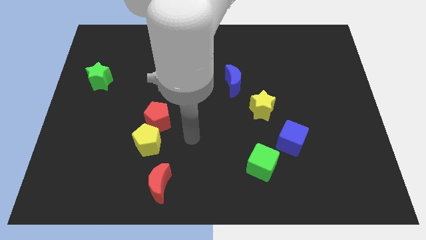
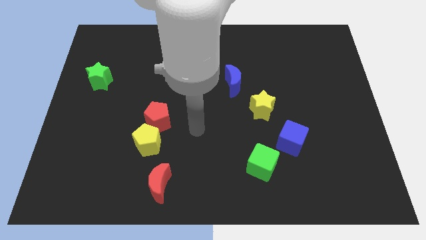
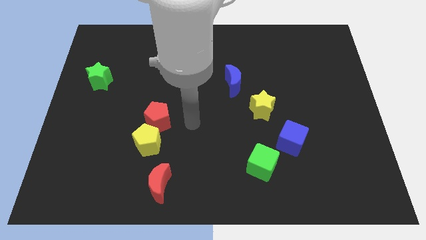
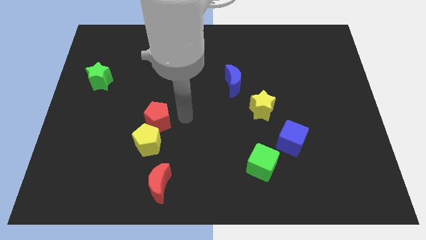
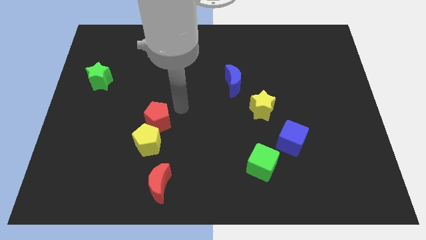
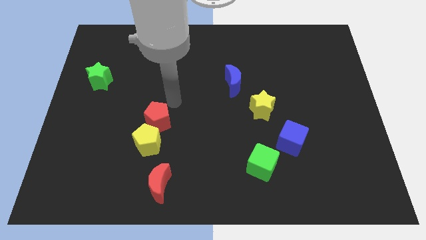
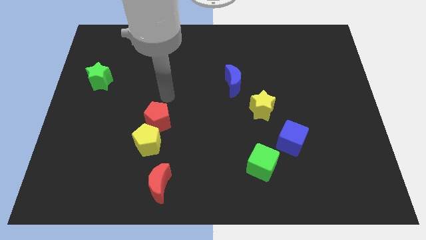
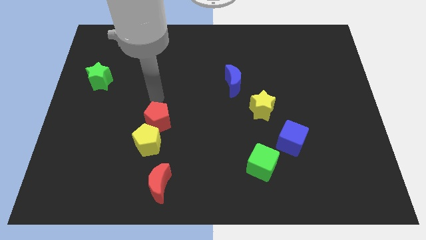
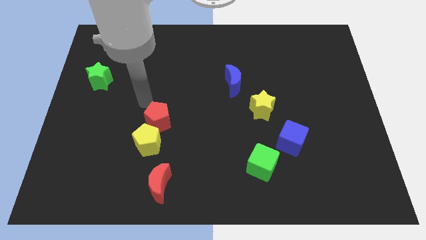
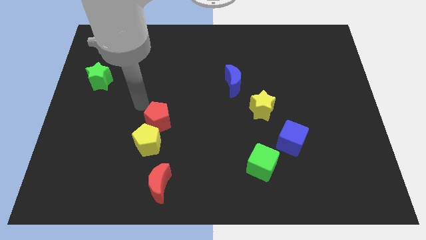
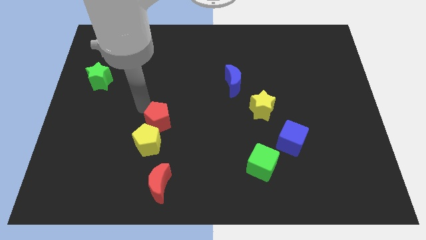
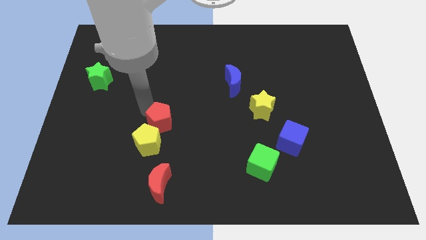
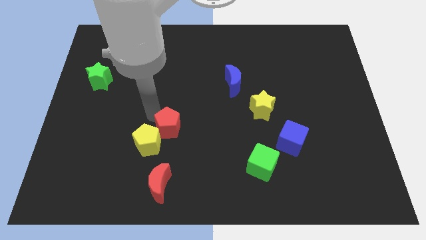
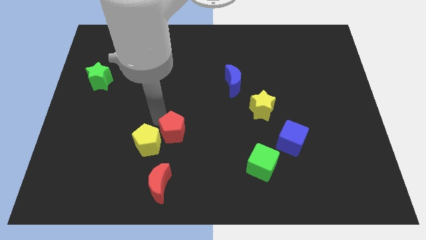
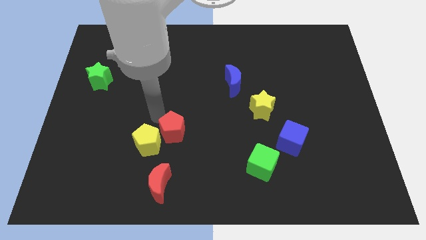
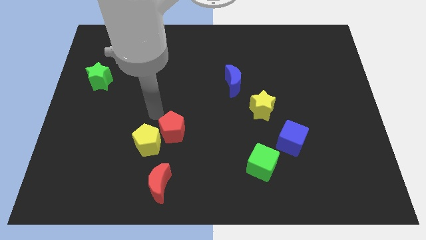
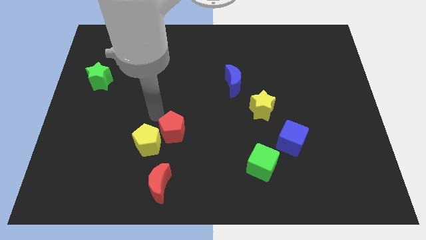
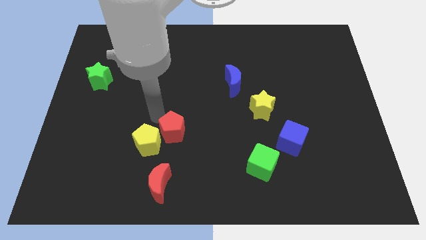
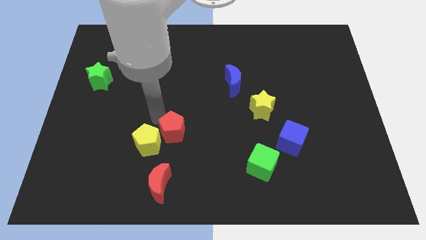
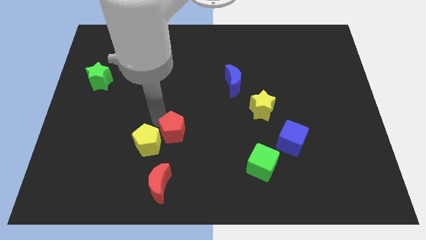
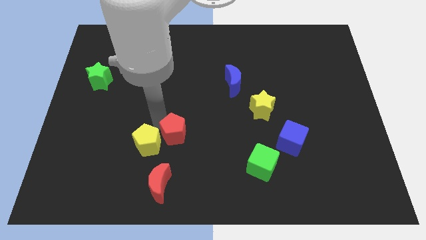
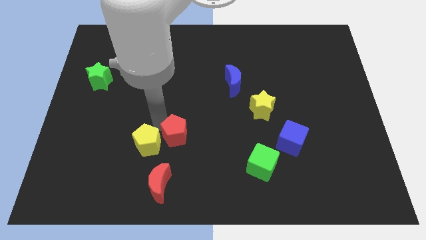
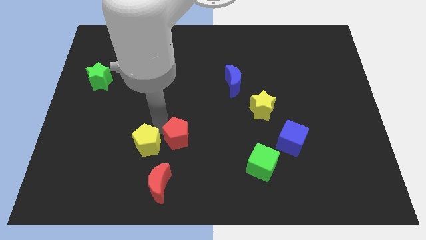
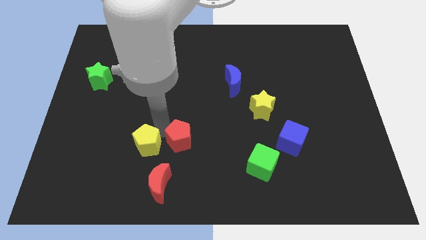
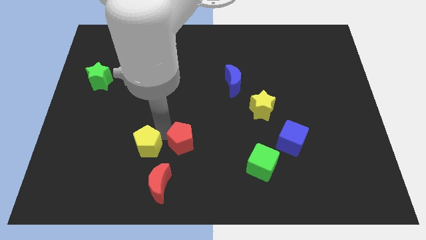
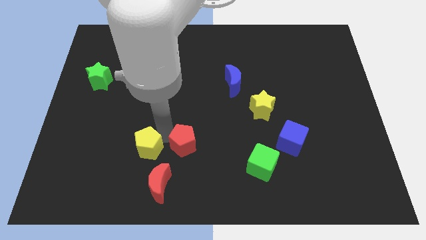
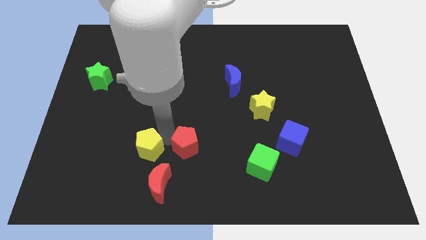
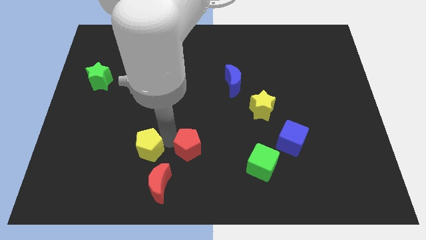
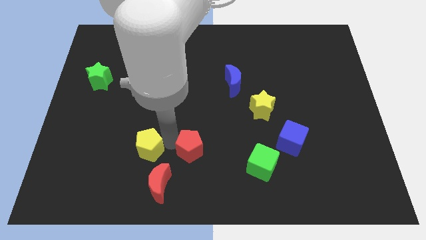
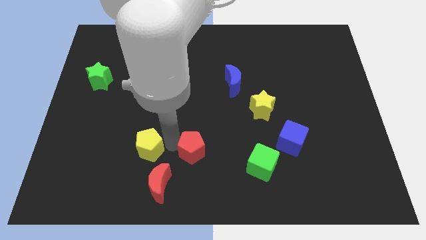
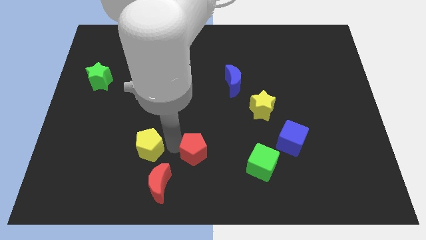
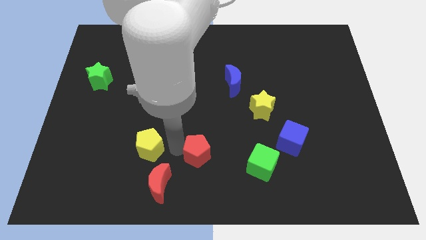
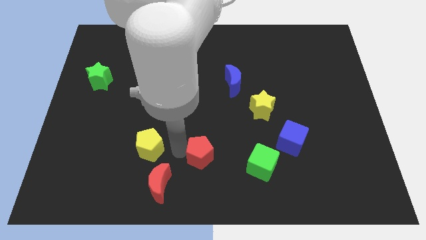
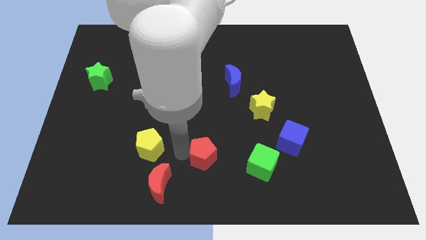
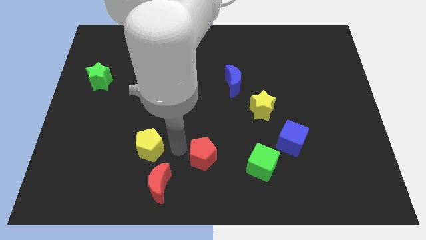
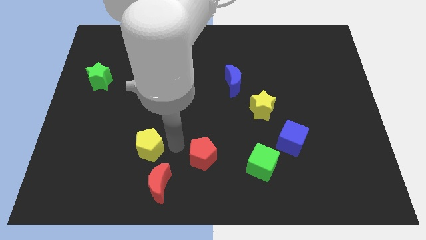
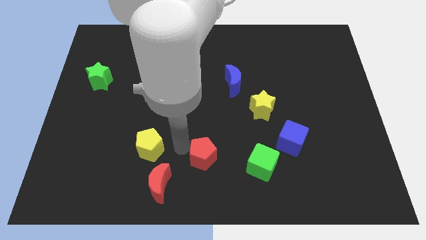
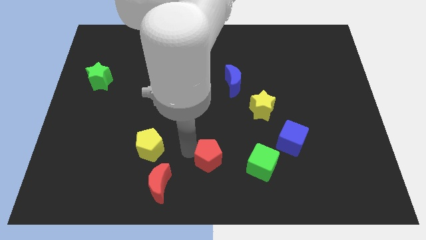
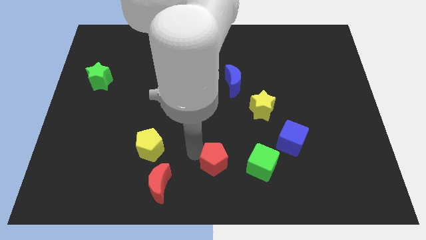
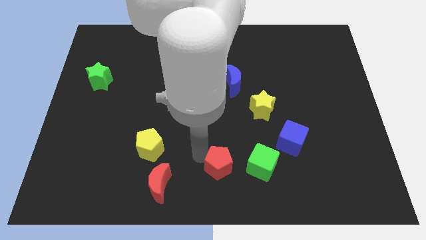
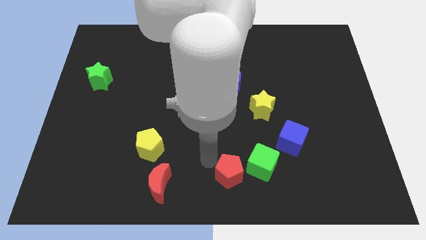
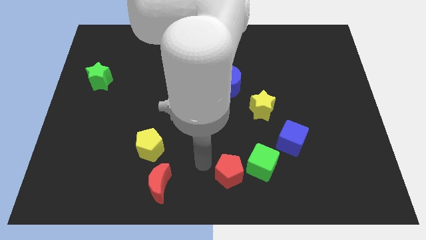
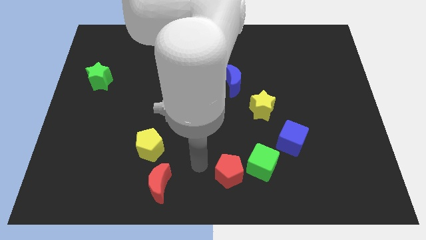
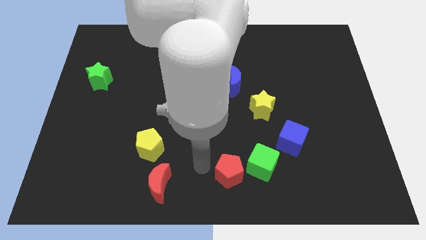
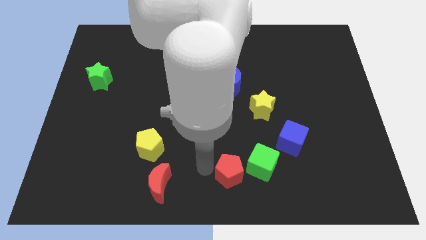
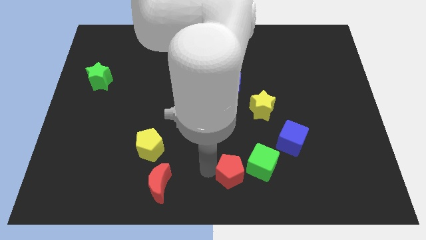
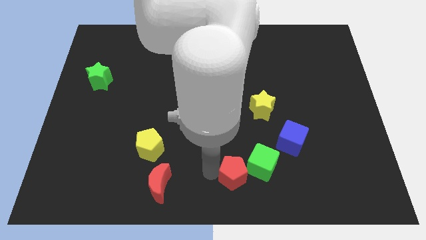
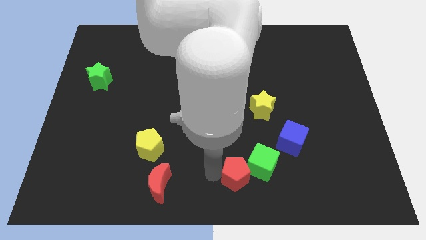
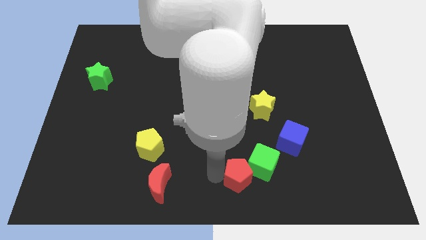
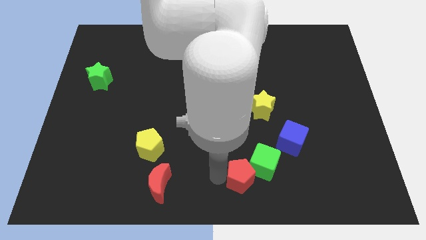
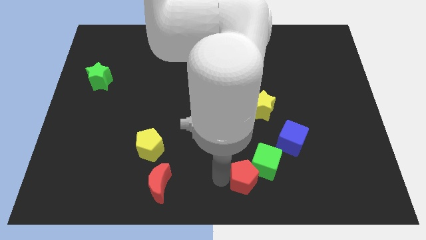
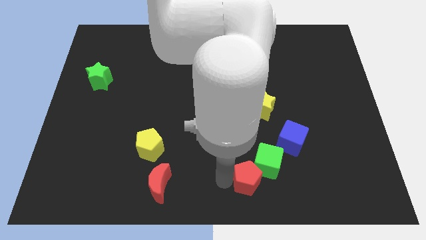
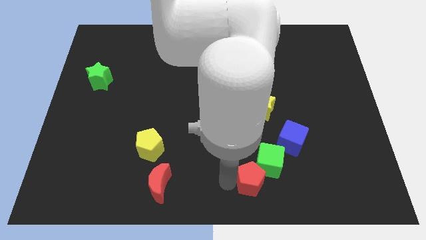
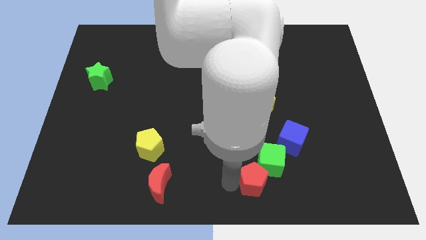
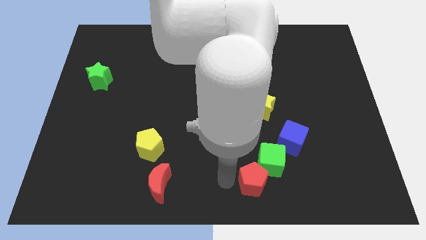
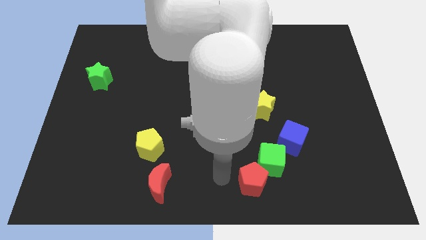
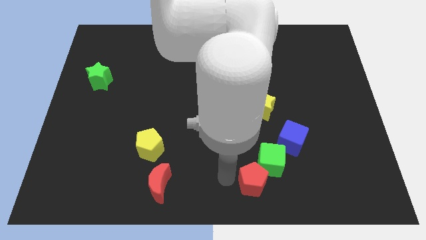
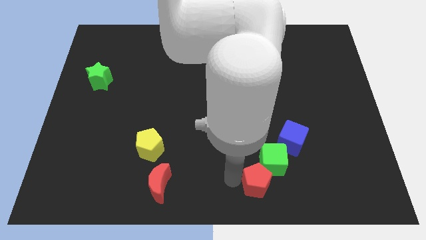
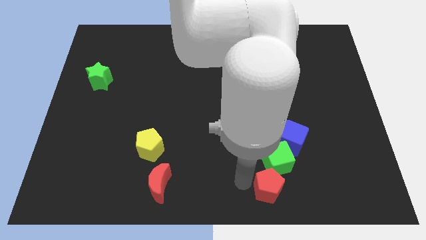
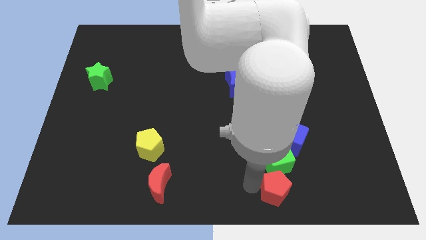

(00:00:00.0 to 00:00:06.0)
slide the red pentagon to the bottom of the blue cube

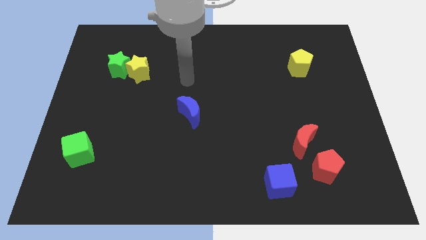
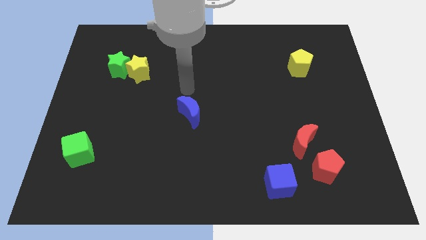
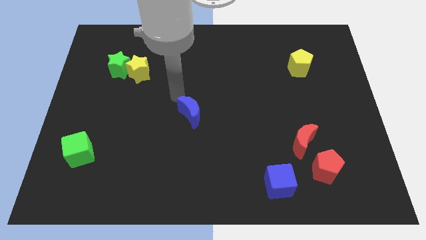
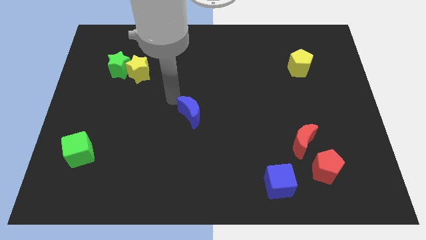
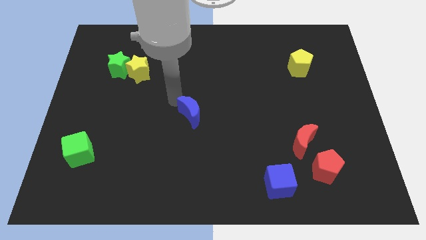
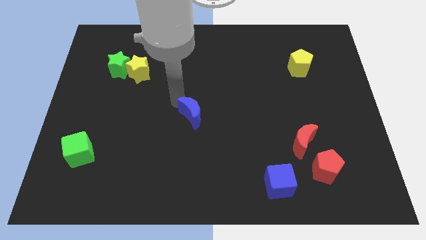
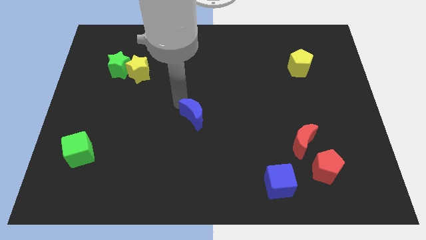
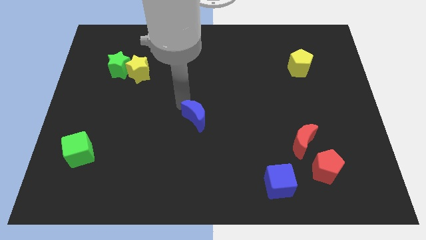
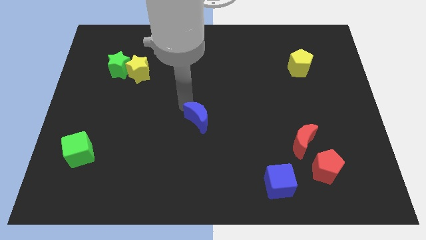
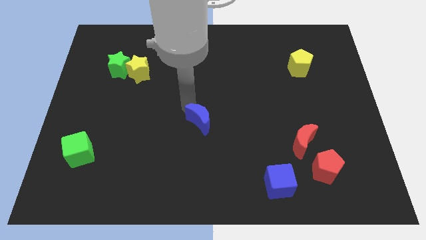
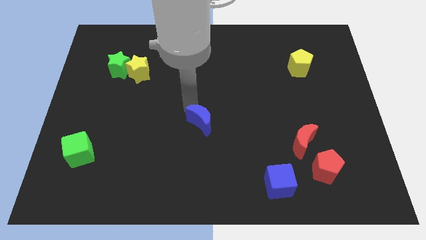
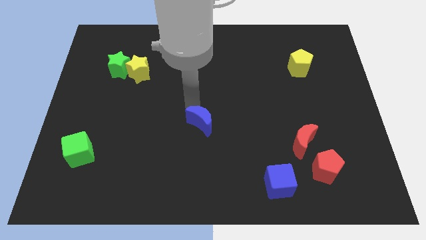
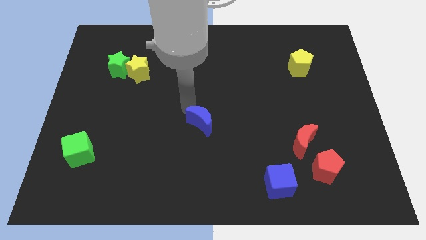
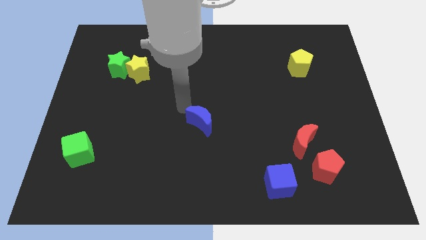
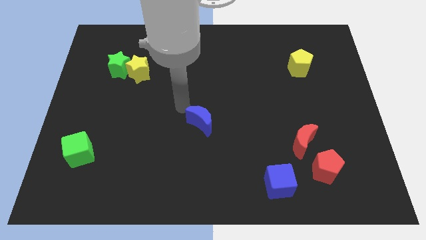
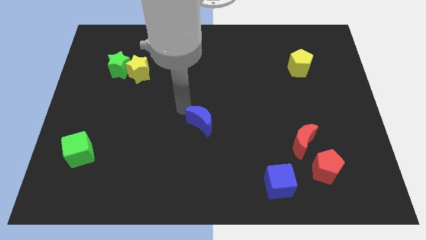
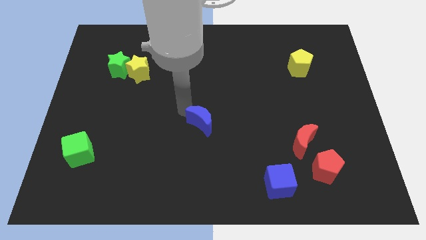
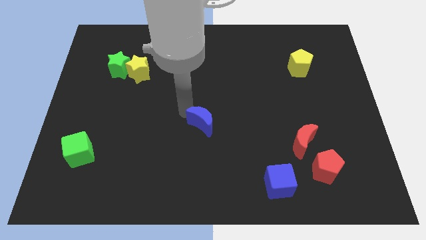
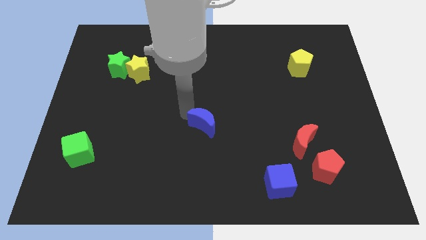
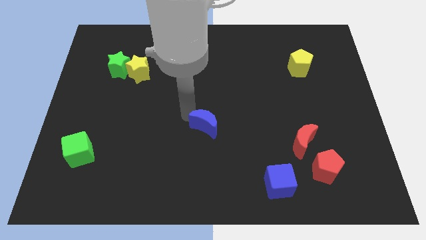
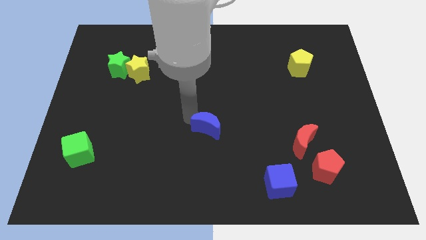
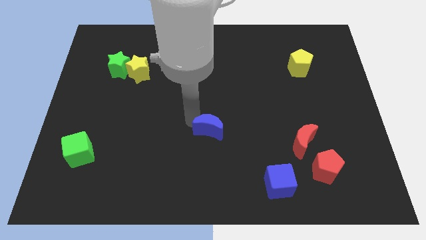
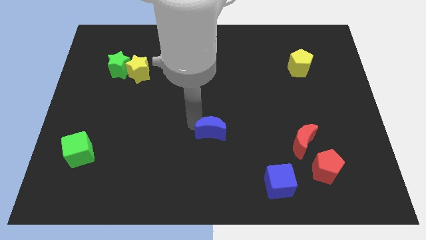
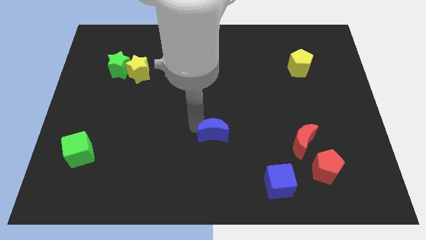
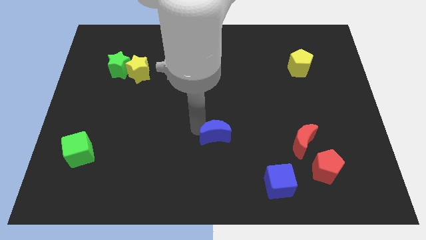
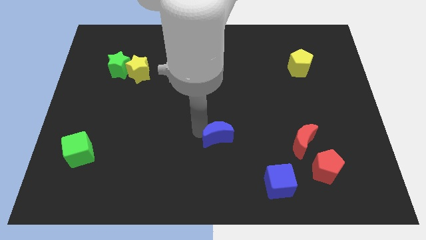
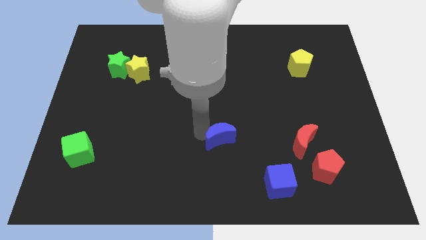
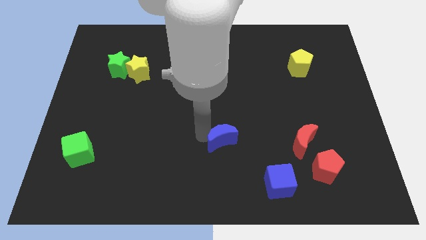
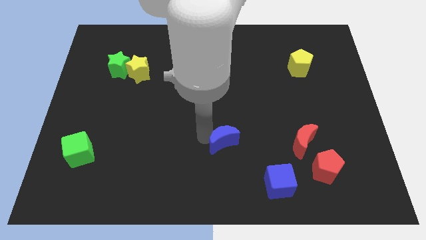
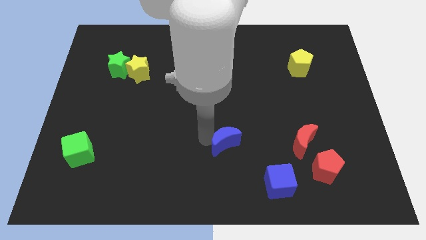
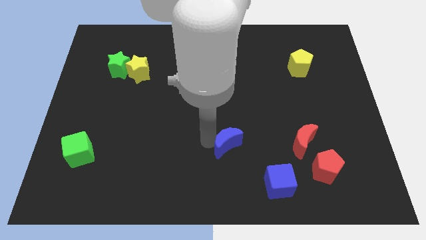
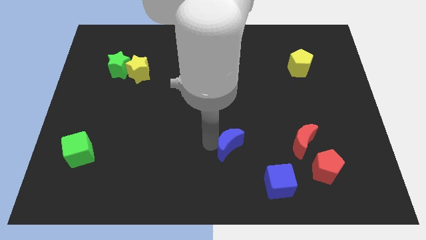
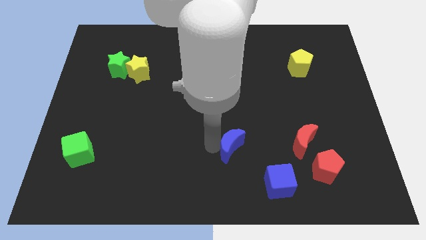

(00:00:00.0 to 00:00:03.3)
slide the blue moon to the top left of the blue cube
